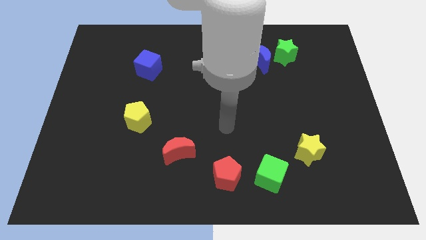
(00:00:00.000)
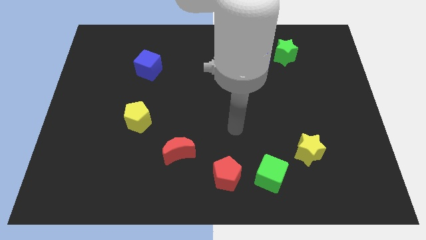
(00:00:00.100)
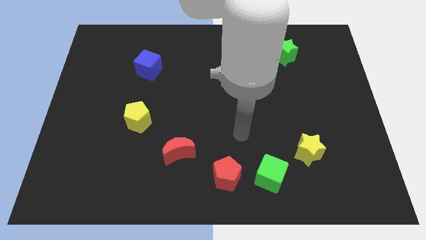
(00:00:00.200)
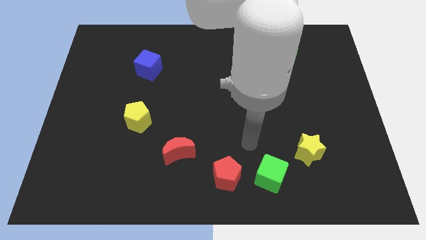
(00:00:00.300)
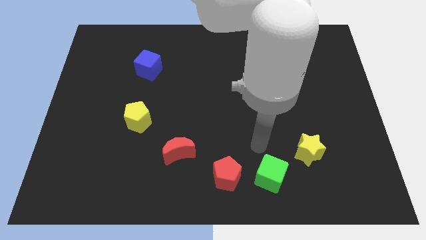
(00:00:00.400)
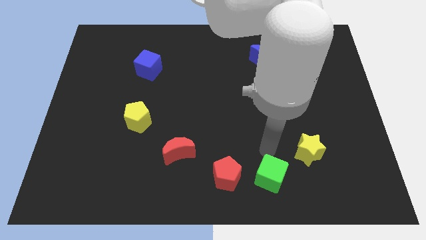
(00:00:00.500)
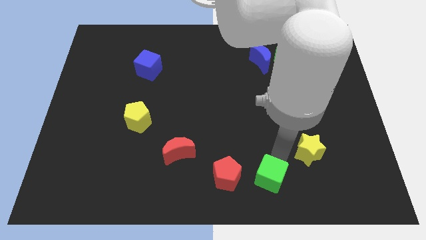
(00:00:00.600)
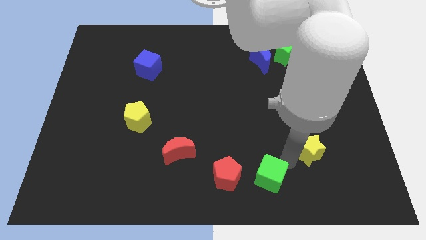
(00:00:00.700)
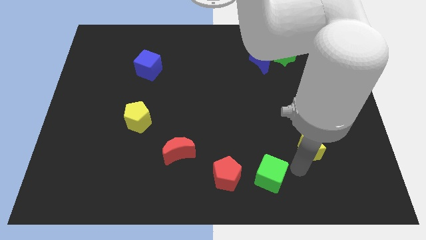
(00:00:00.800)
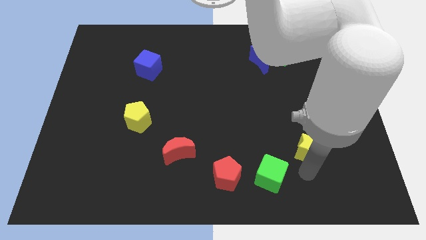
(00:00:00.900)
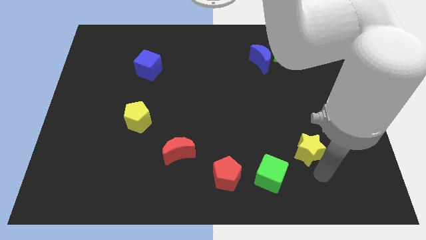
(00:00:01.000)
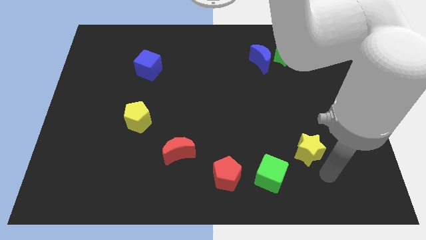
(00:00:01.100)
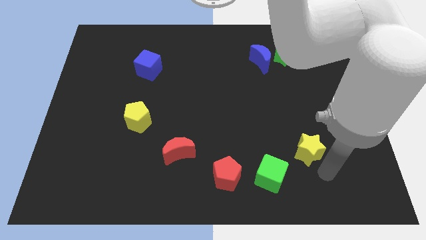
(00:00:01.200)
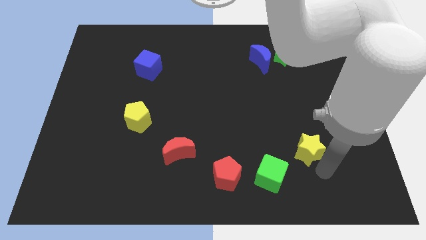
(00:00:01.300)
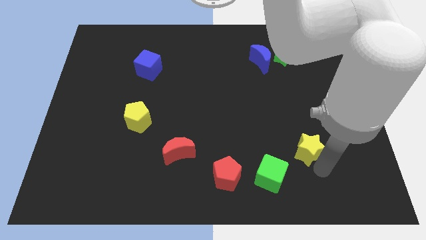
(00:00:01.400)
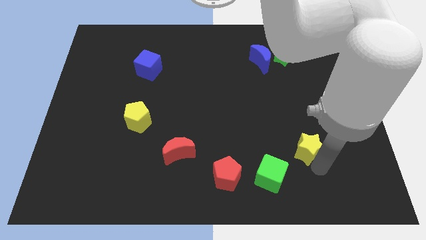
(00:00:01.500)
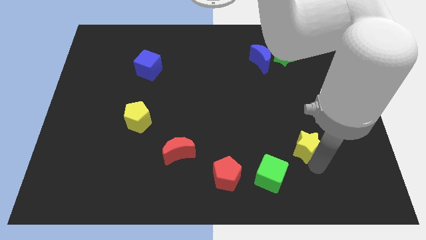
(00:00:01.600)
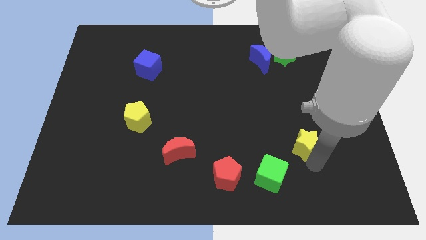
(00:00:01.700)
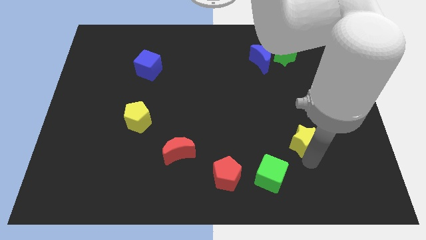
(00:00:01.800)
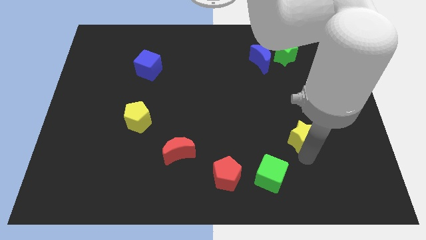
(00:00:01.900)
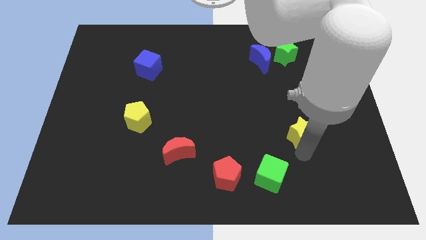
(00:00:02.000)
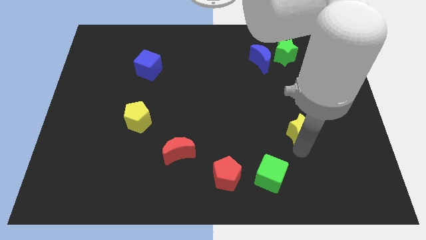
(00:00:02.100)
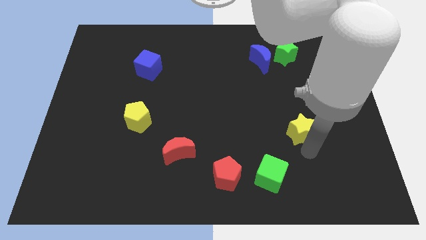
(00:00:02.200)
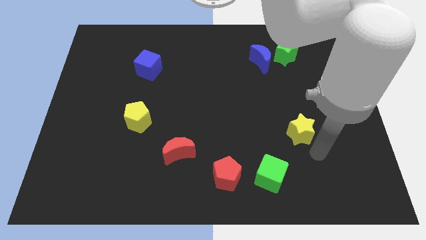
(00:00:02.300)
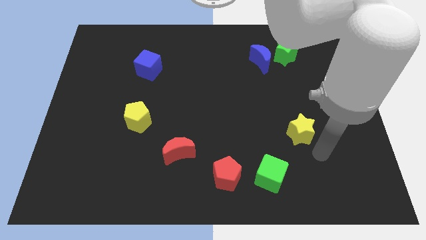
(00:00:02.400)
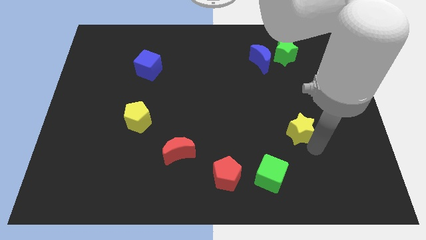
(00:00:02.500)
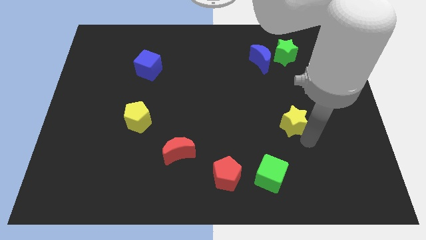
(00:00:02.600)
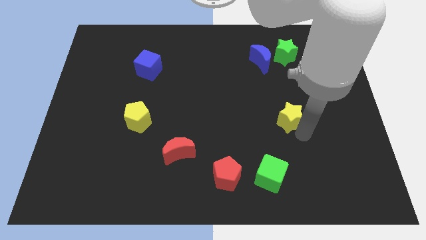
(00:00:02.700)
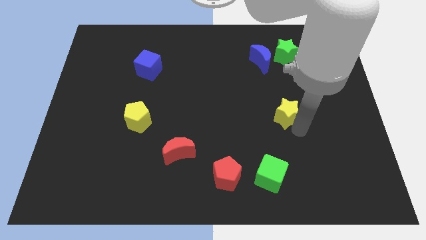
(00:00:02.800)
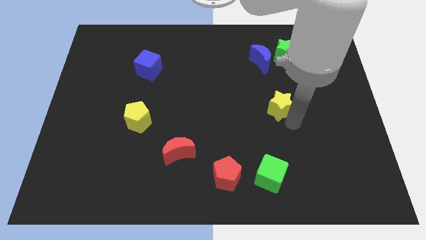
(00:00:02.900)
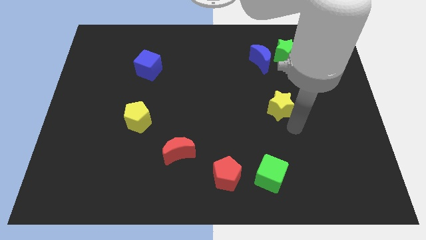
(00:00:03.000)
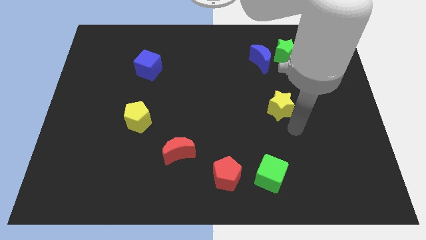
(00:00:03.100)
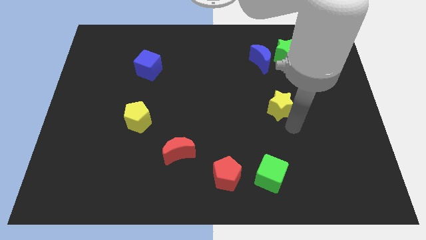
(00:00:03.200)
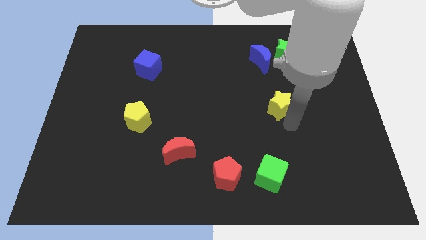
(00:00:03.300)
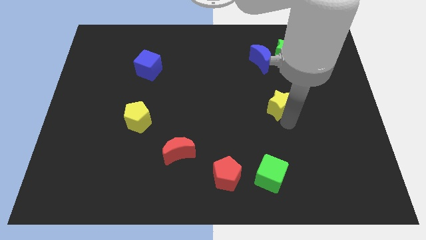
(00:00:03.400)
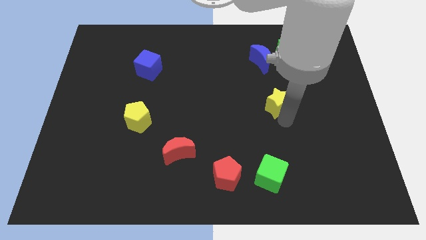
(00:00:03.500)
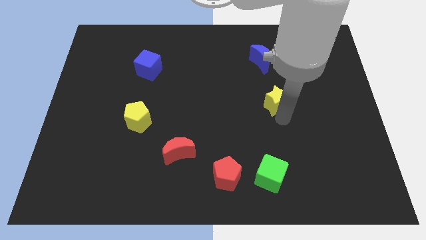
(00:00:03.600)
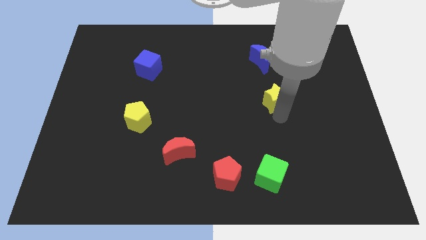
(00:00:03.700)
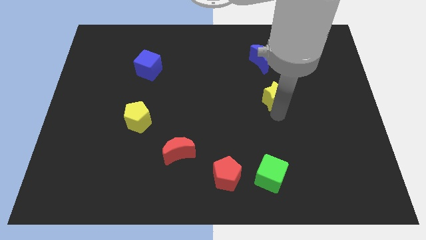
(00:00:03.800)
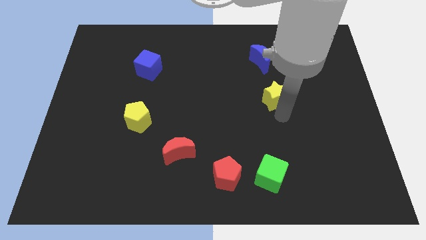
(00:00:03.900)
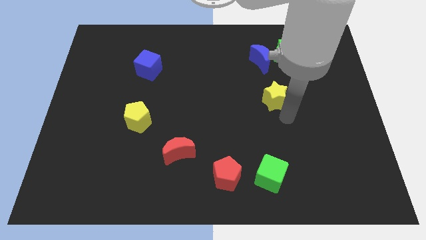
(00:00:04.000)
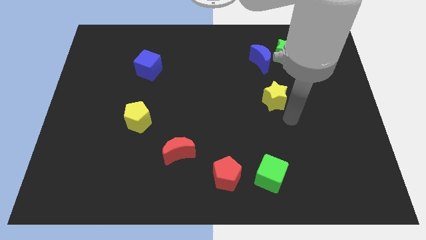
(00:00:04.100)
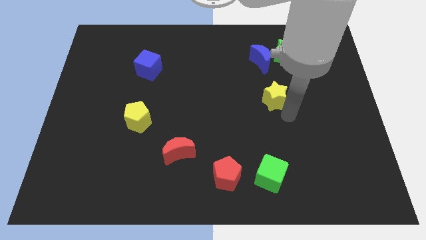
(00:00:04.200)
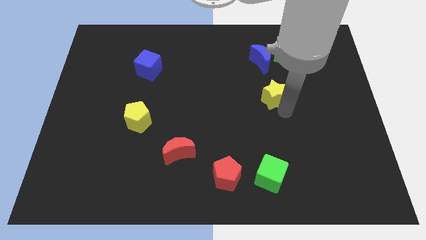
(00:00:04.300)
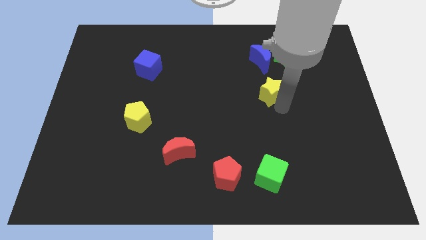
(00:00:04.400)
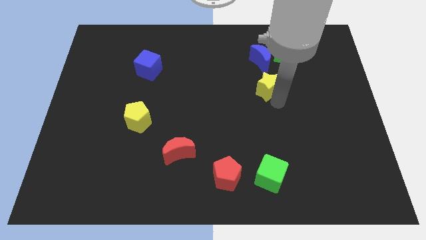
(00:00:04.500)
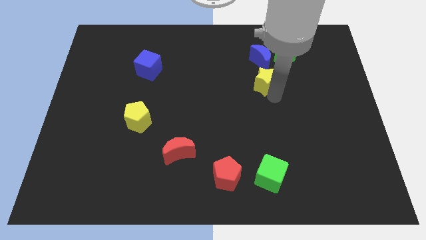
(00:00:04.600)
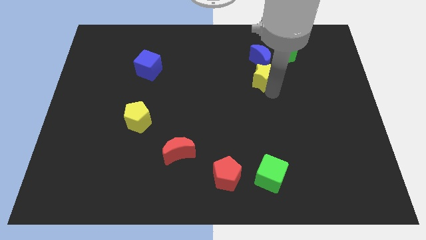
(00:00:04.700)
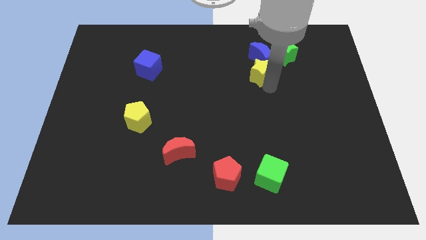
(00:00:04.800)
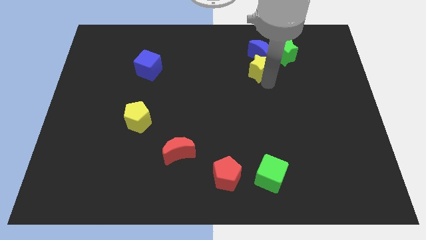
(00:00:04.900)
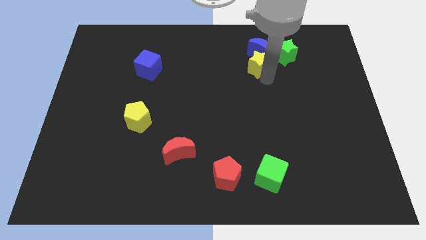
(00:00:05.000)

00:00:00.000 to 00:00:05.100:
put the yellow star to the left of the green star

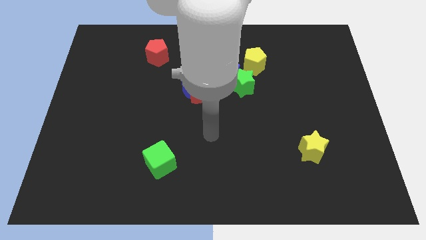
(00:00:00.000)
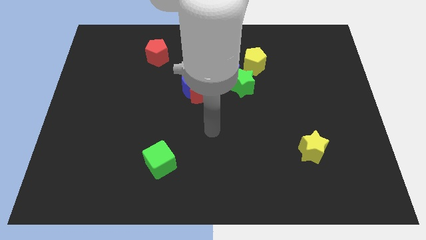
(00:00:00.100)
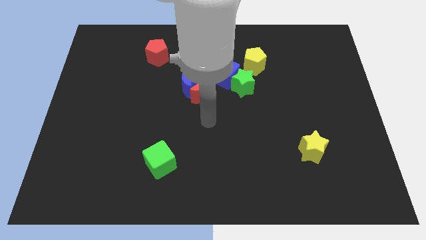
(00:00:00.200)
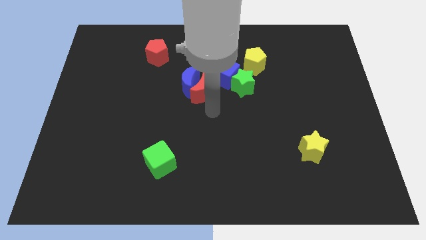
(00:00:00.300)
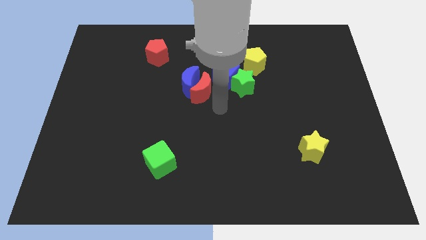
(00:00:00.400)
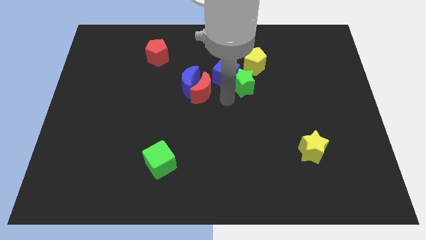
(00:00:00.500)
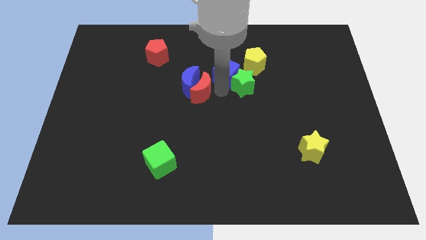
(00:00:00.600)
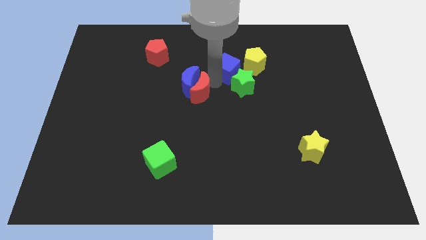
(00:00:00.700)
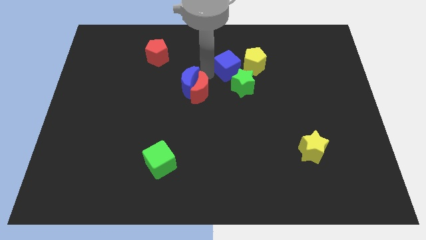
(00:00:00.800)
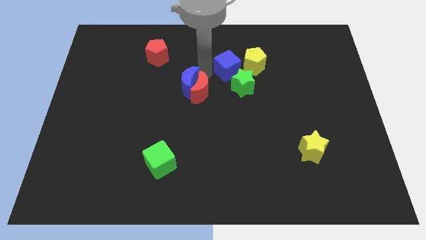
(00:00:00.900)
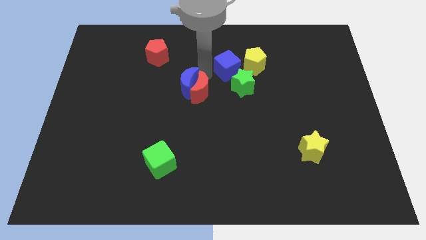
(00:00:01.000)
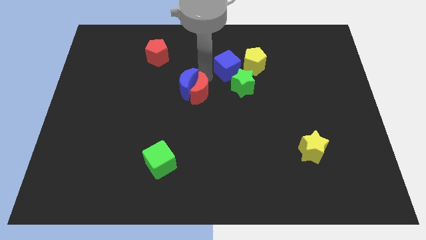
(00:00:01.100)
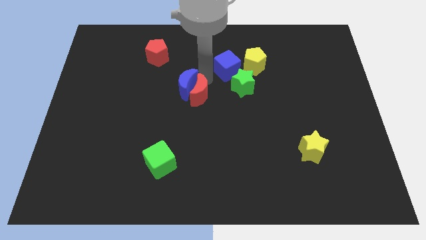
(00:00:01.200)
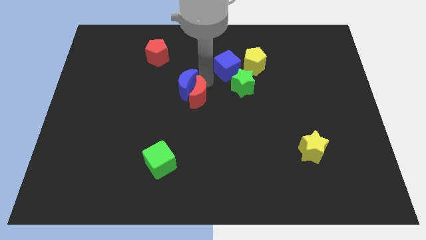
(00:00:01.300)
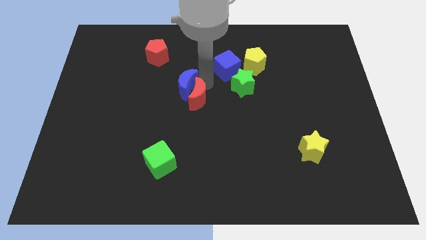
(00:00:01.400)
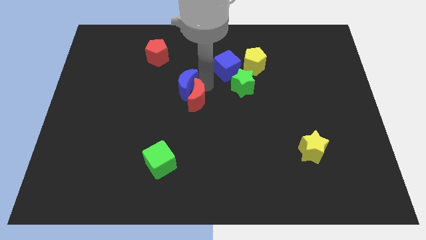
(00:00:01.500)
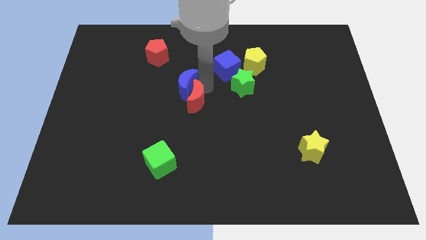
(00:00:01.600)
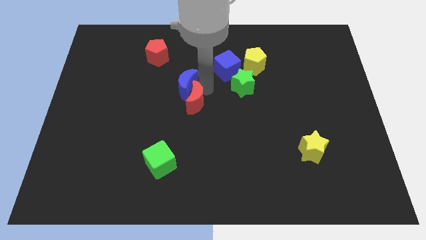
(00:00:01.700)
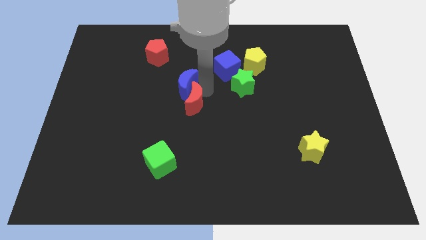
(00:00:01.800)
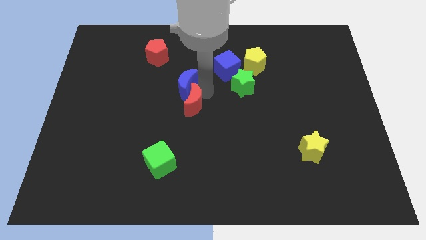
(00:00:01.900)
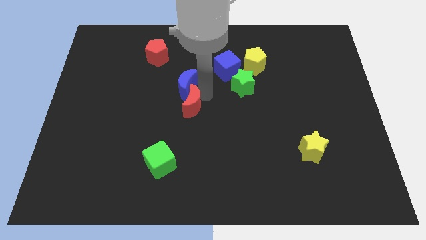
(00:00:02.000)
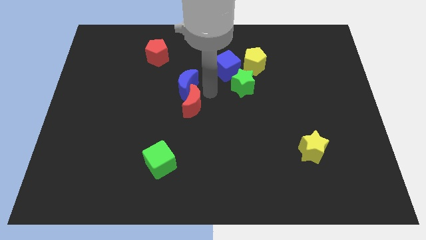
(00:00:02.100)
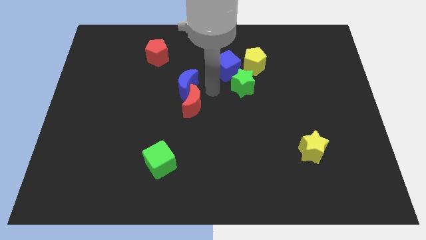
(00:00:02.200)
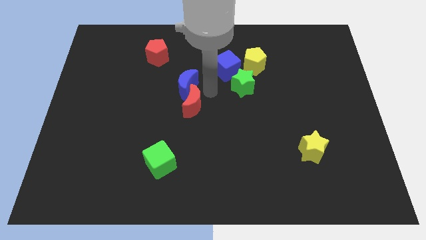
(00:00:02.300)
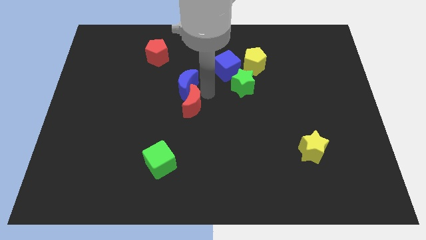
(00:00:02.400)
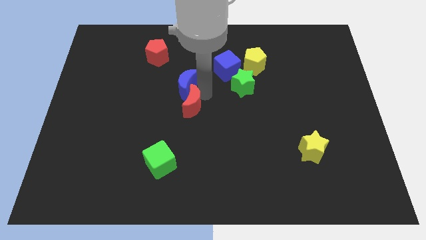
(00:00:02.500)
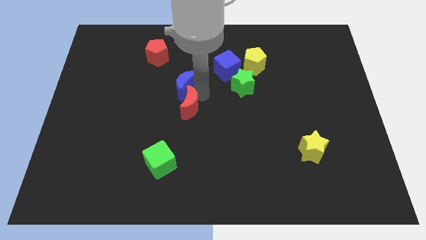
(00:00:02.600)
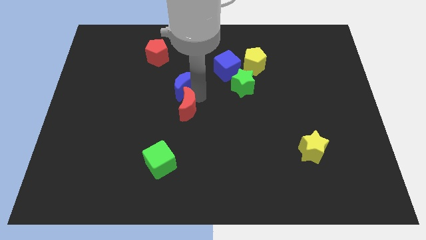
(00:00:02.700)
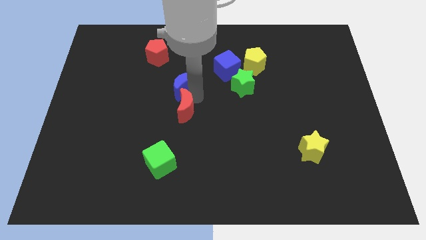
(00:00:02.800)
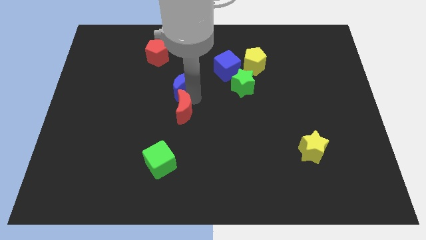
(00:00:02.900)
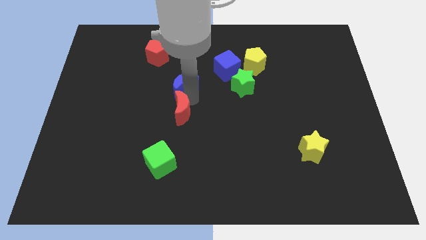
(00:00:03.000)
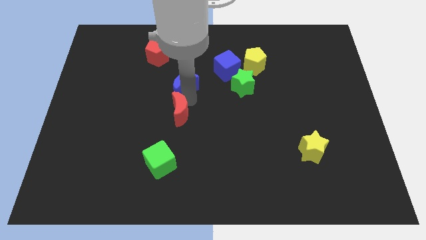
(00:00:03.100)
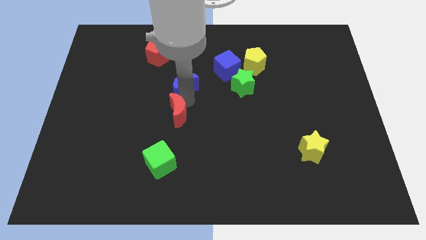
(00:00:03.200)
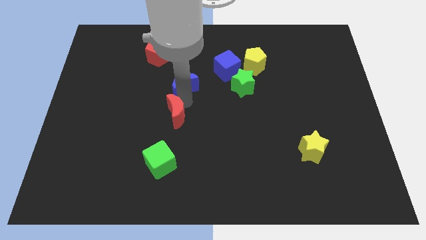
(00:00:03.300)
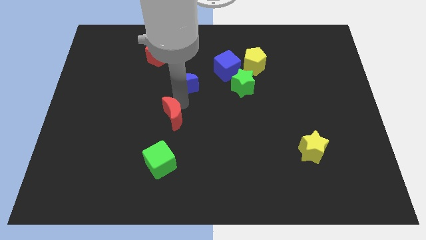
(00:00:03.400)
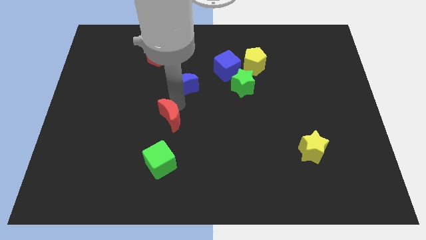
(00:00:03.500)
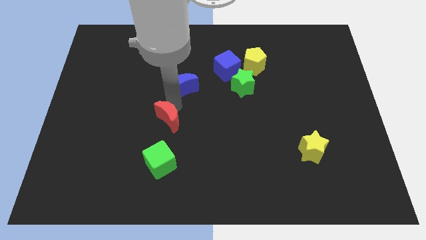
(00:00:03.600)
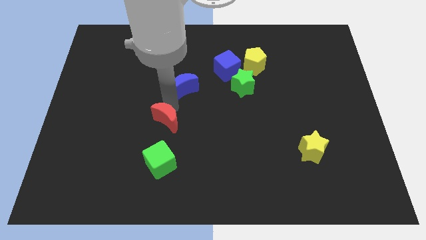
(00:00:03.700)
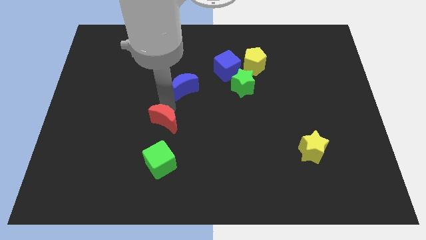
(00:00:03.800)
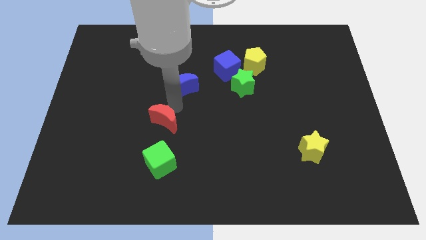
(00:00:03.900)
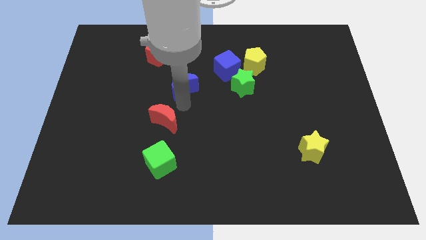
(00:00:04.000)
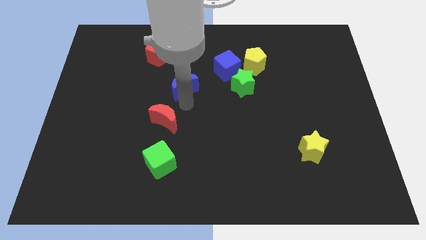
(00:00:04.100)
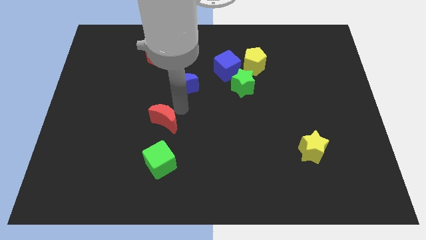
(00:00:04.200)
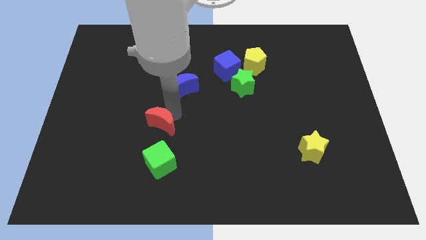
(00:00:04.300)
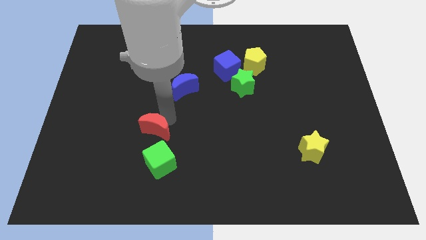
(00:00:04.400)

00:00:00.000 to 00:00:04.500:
put the red moon to the top left of the green cube
